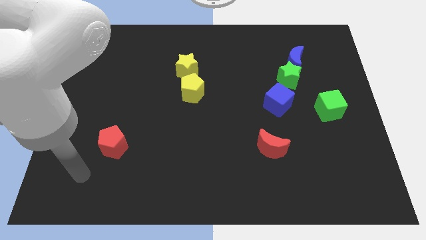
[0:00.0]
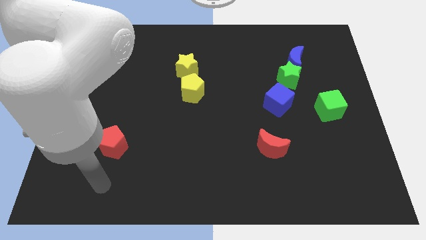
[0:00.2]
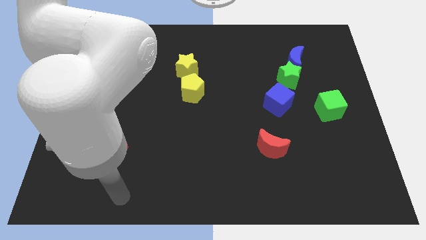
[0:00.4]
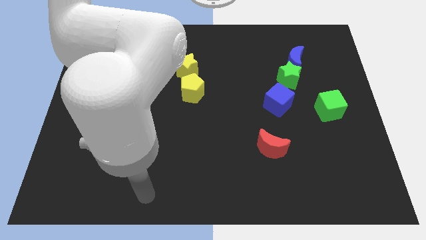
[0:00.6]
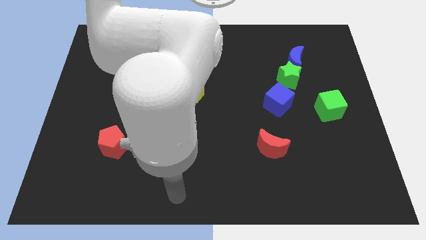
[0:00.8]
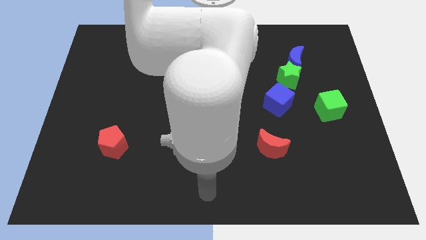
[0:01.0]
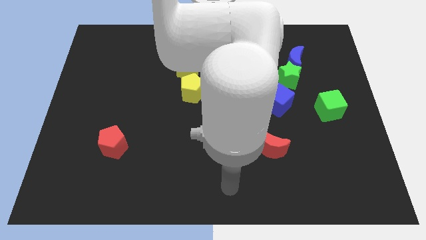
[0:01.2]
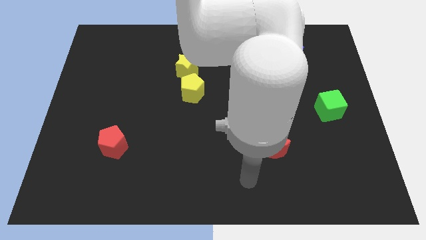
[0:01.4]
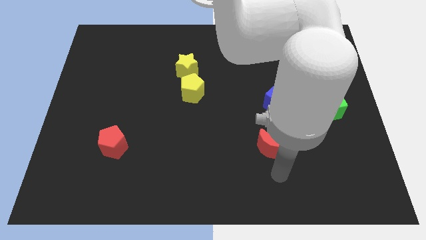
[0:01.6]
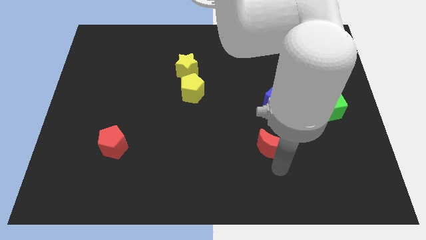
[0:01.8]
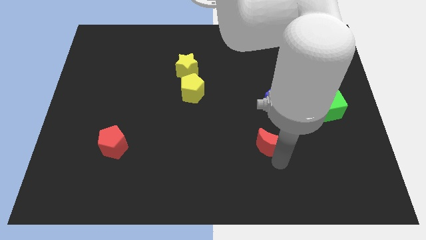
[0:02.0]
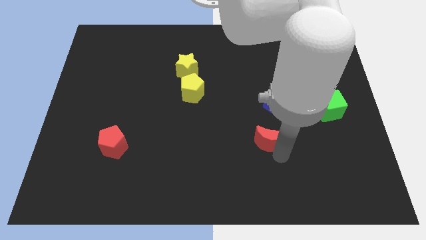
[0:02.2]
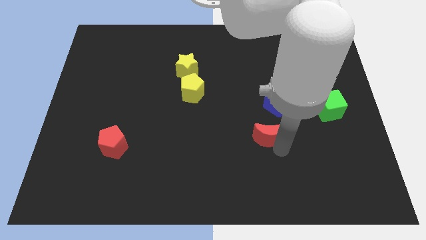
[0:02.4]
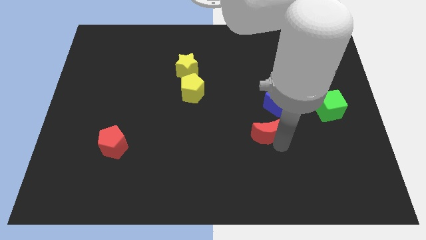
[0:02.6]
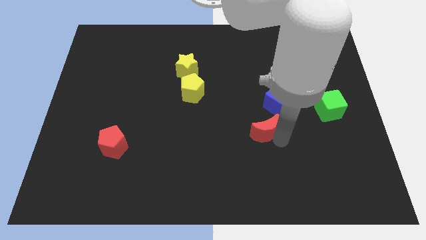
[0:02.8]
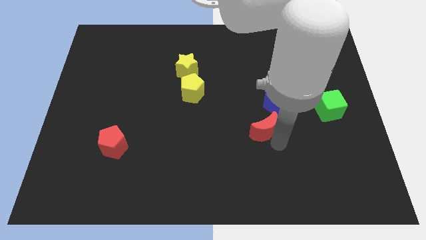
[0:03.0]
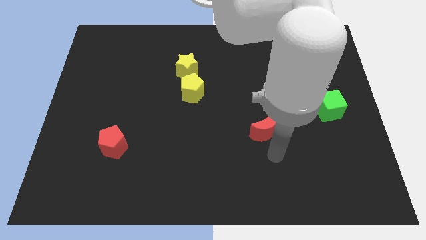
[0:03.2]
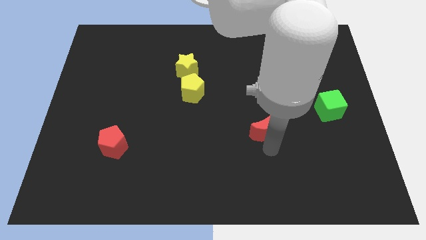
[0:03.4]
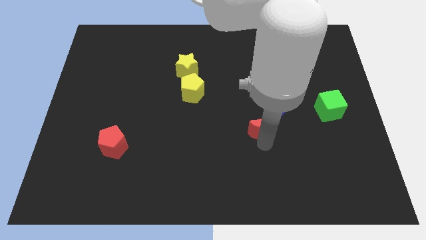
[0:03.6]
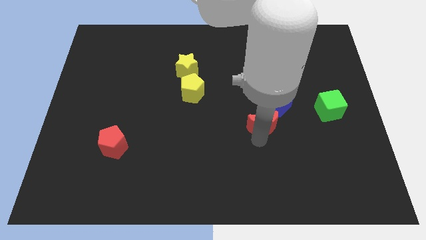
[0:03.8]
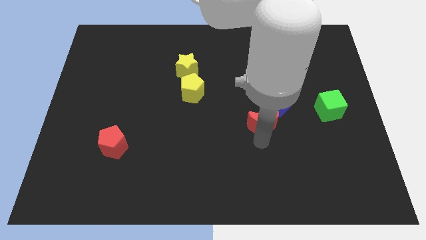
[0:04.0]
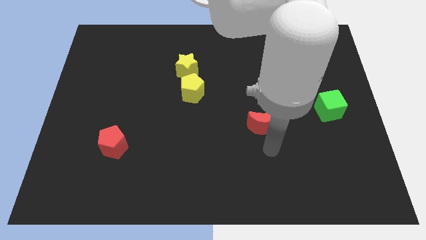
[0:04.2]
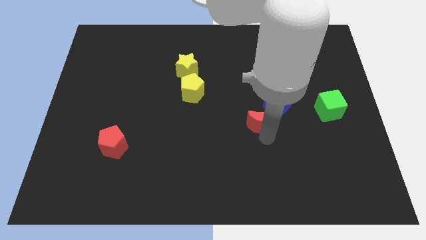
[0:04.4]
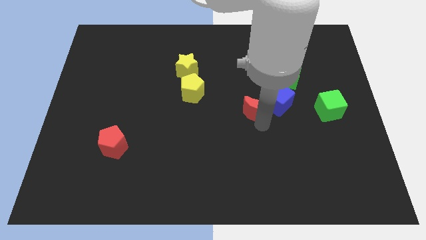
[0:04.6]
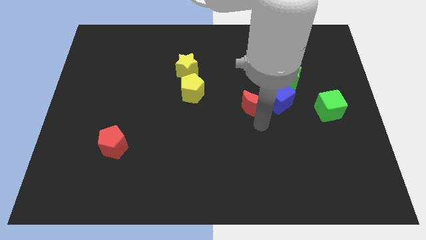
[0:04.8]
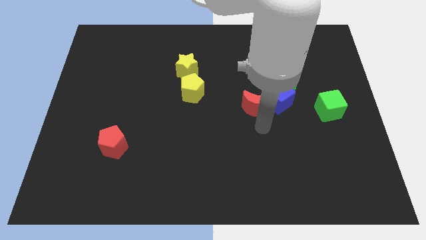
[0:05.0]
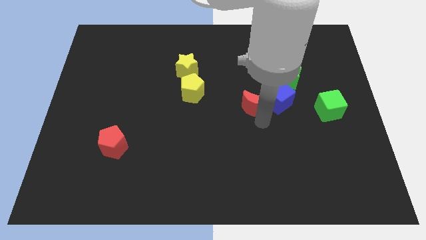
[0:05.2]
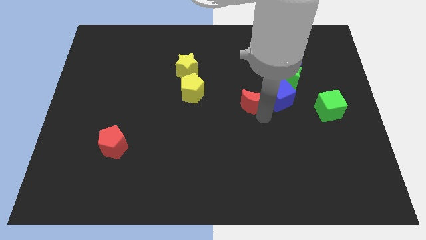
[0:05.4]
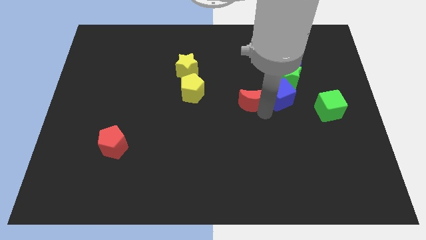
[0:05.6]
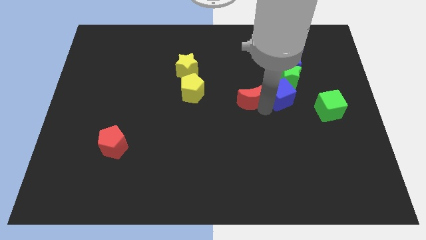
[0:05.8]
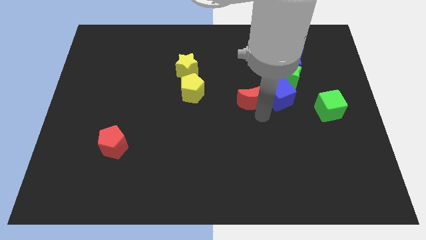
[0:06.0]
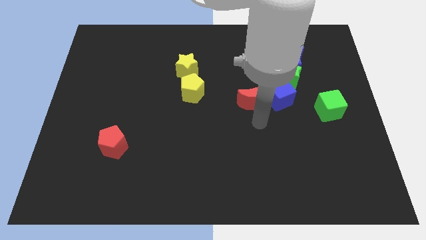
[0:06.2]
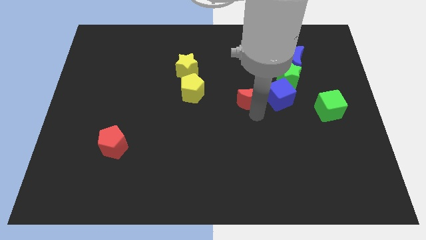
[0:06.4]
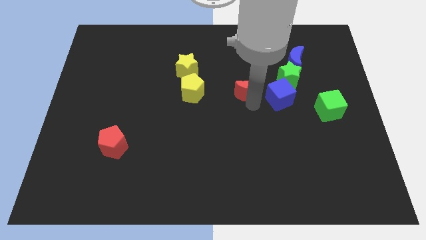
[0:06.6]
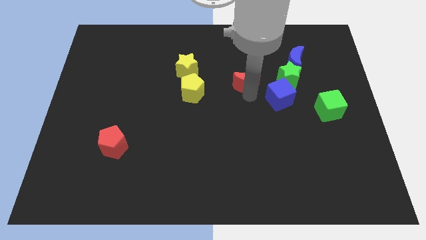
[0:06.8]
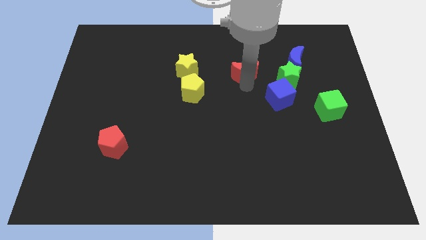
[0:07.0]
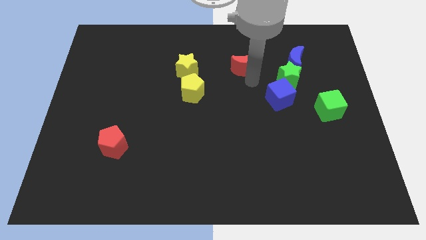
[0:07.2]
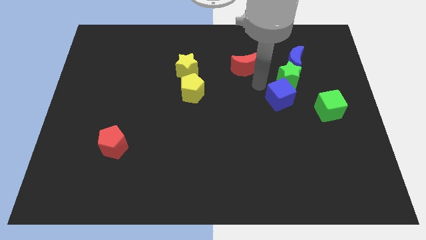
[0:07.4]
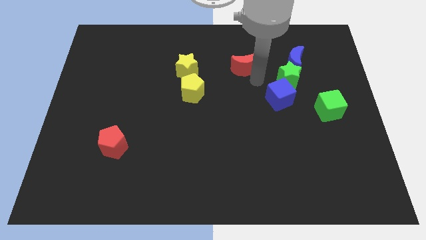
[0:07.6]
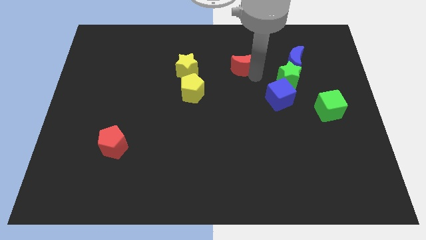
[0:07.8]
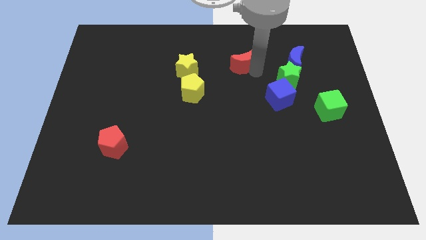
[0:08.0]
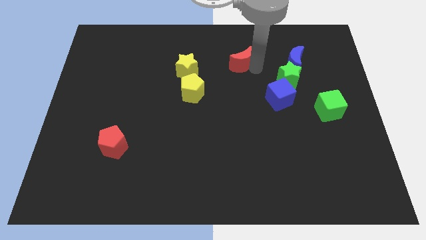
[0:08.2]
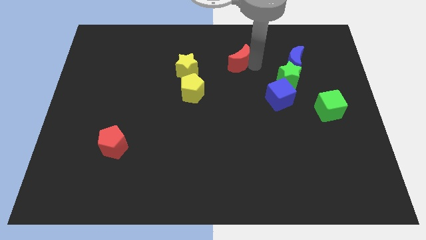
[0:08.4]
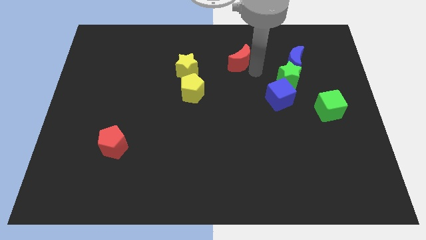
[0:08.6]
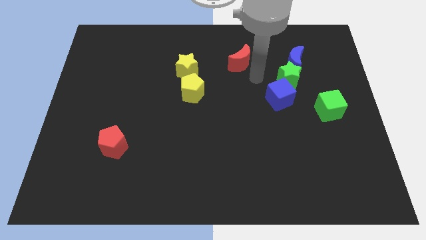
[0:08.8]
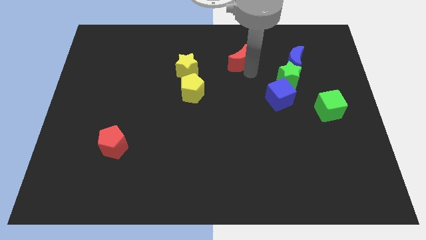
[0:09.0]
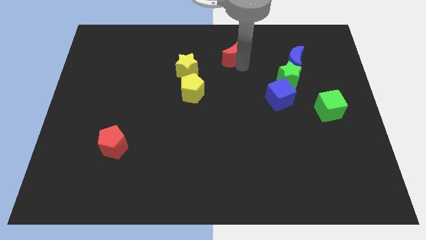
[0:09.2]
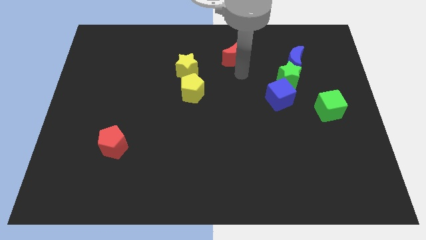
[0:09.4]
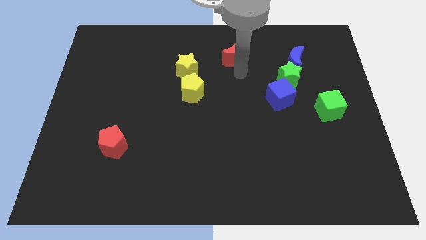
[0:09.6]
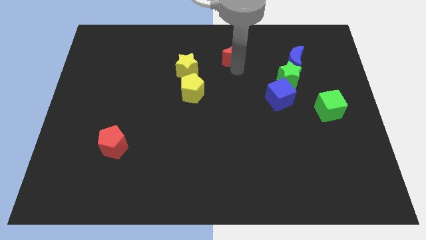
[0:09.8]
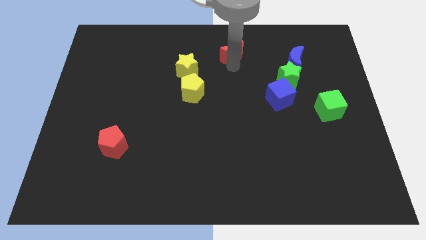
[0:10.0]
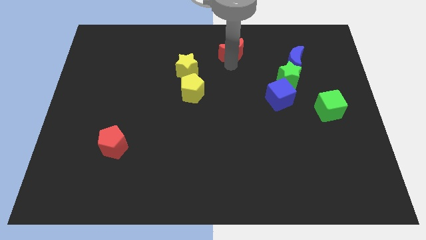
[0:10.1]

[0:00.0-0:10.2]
put the red moon to the towards your base

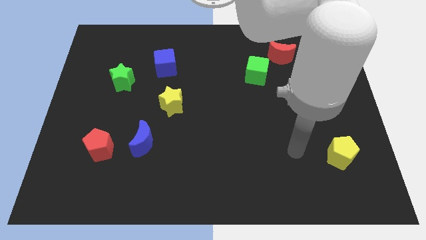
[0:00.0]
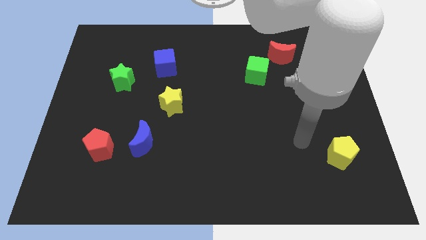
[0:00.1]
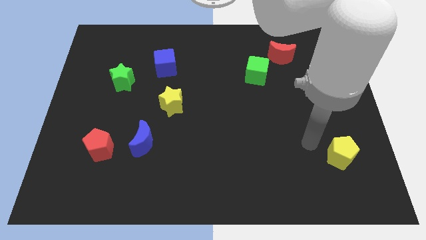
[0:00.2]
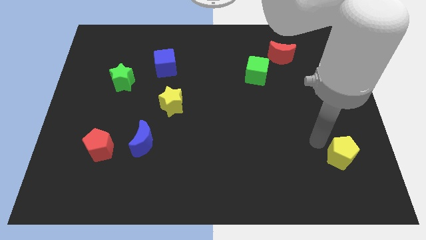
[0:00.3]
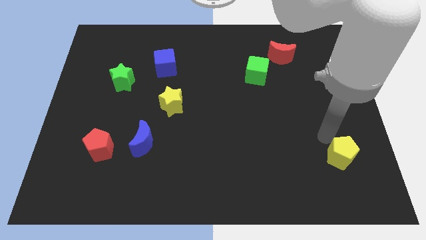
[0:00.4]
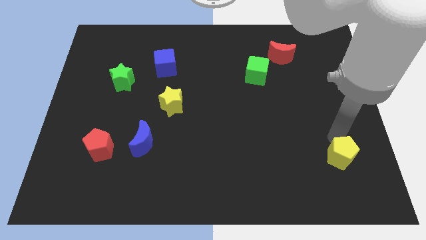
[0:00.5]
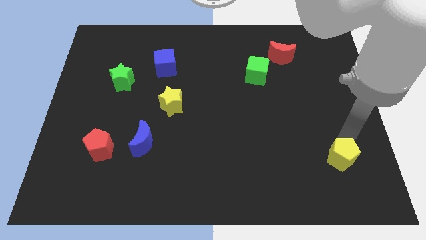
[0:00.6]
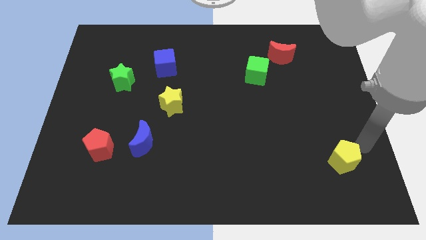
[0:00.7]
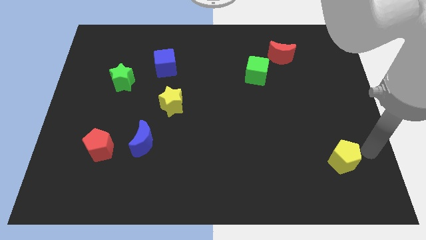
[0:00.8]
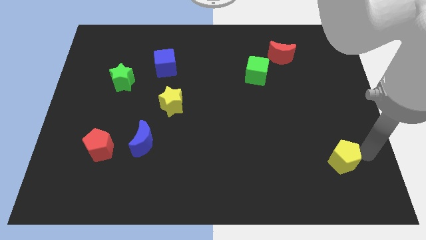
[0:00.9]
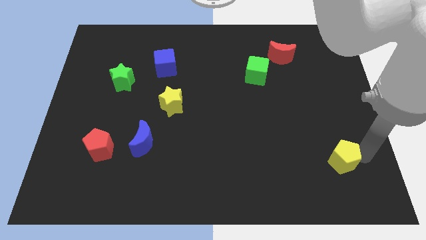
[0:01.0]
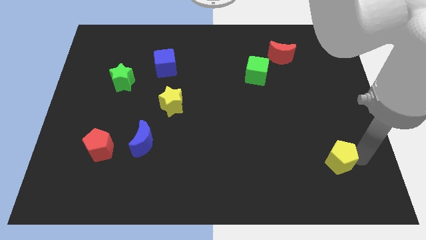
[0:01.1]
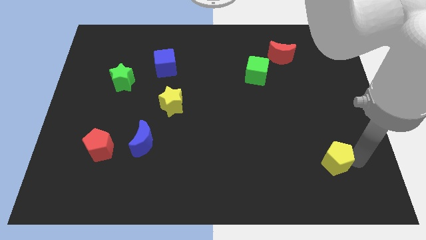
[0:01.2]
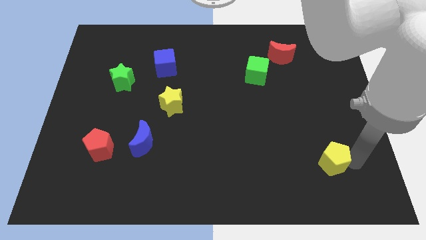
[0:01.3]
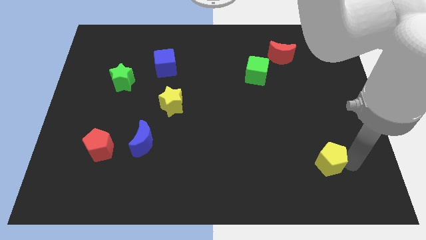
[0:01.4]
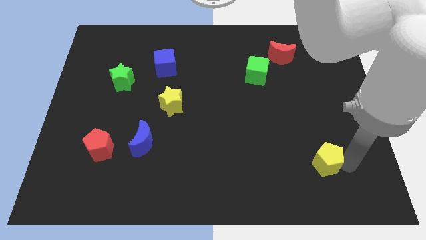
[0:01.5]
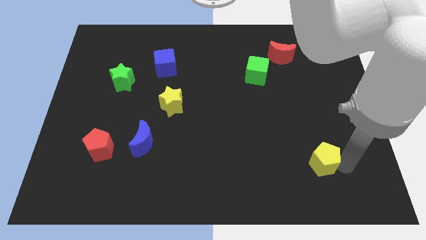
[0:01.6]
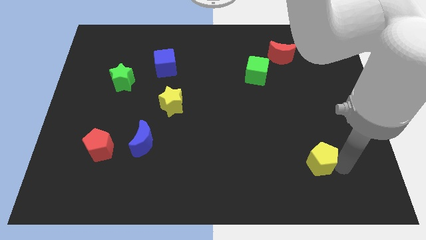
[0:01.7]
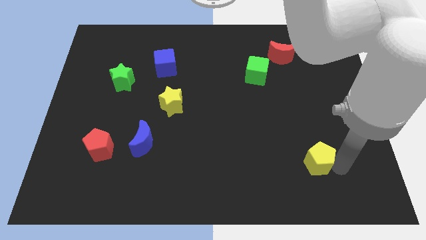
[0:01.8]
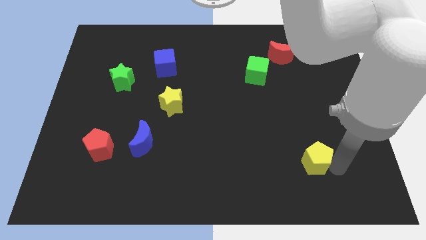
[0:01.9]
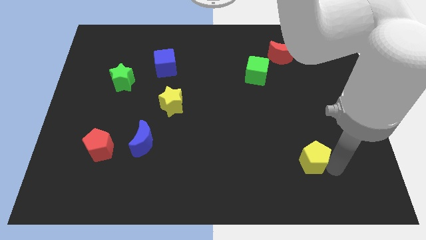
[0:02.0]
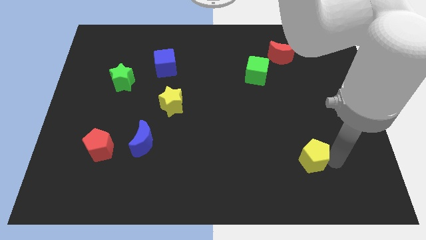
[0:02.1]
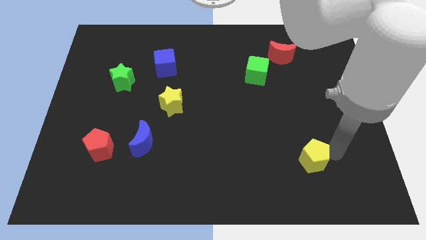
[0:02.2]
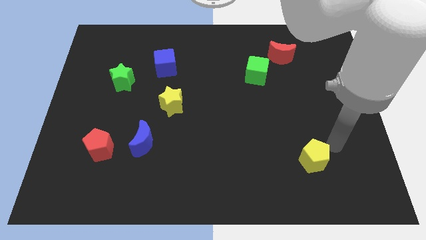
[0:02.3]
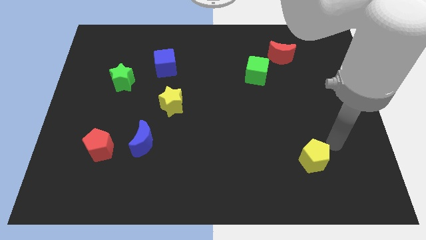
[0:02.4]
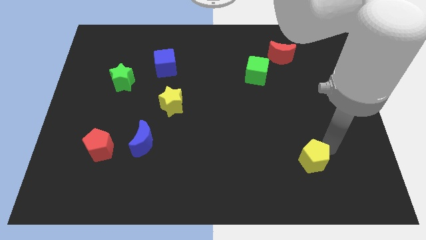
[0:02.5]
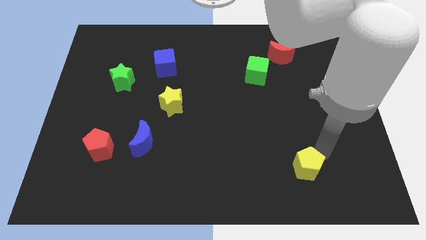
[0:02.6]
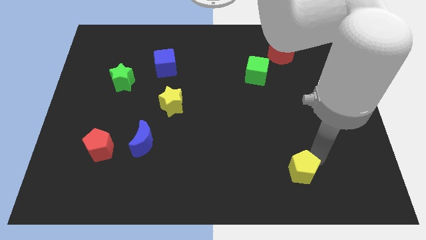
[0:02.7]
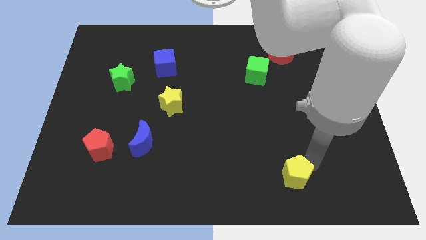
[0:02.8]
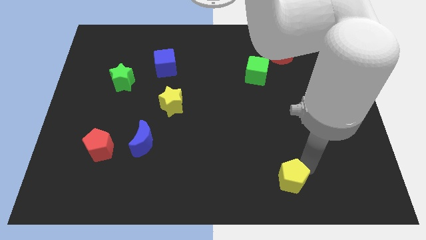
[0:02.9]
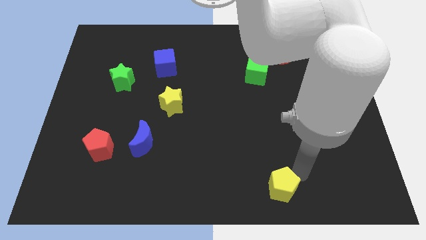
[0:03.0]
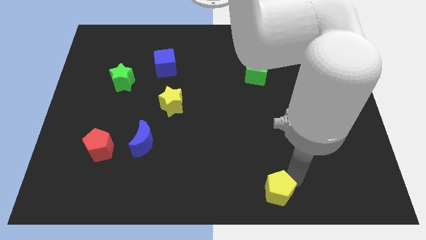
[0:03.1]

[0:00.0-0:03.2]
put the yellow pentagon to the bottom
